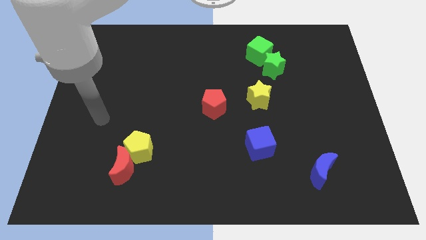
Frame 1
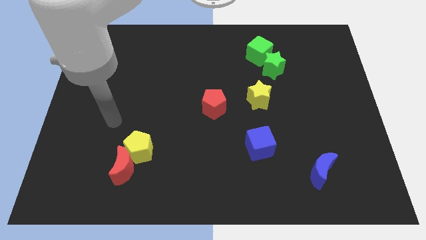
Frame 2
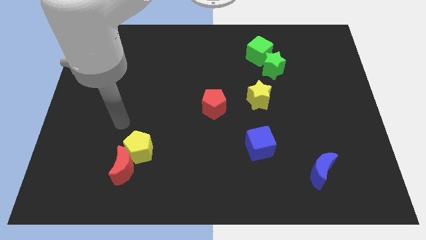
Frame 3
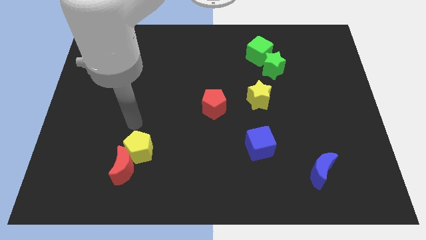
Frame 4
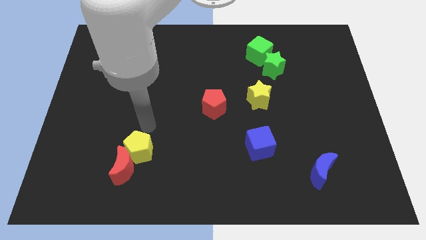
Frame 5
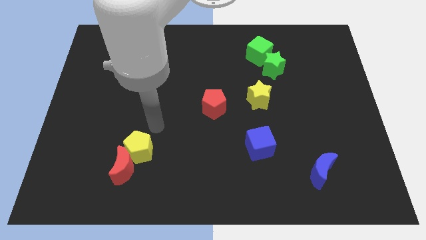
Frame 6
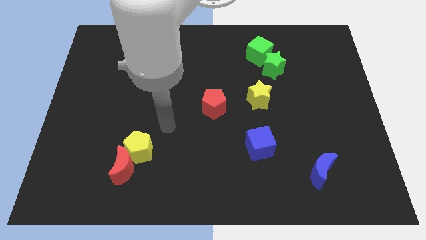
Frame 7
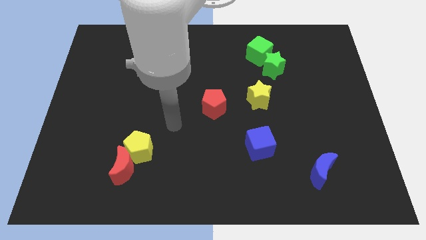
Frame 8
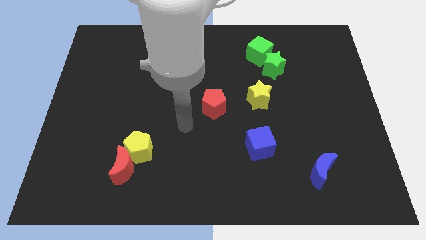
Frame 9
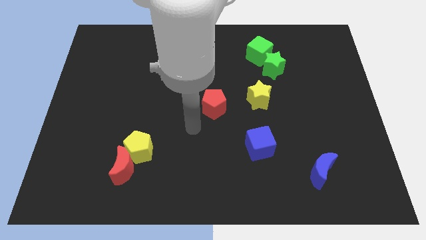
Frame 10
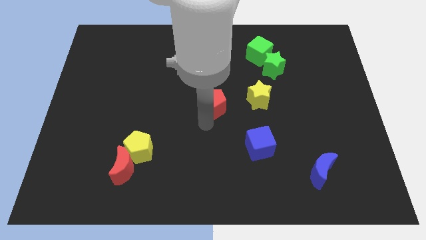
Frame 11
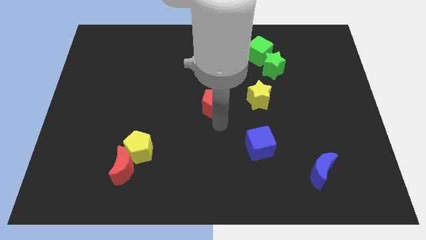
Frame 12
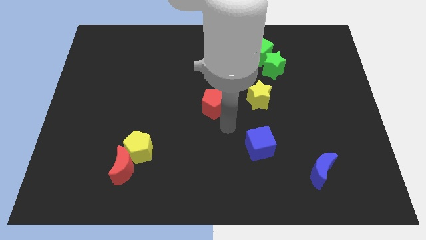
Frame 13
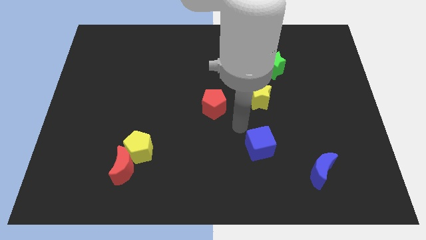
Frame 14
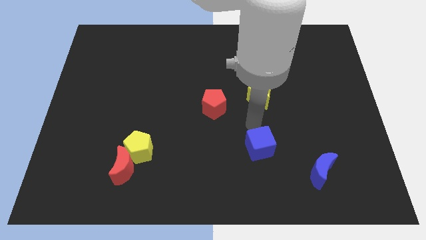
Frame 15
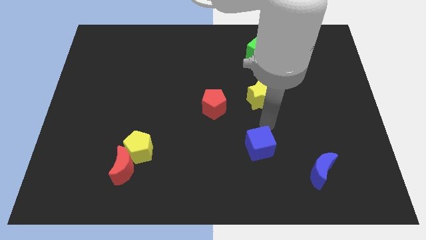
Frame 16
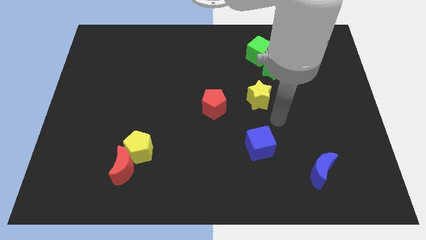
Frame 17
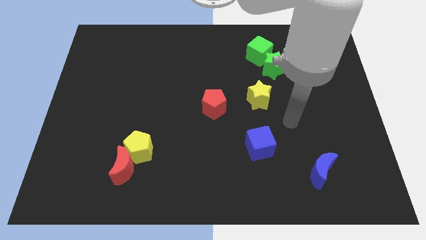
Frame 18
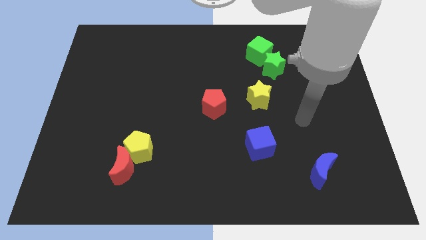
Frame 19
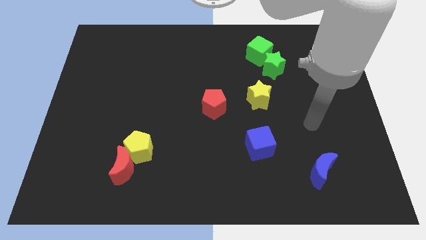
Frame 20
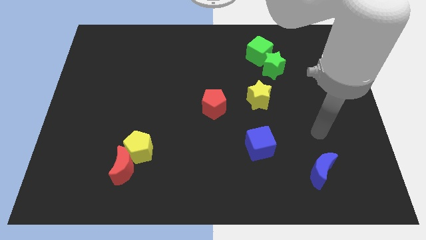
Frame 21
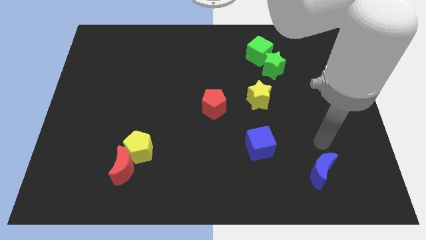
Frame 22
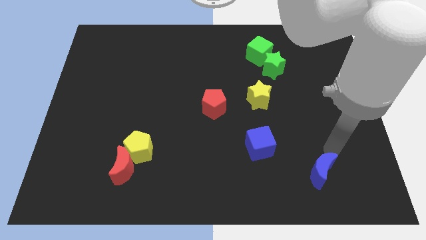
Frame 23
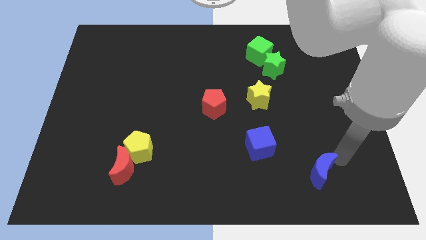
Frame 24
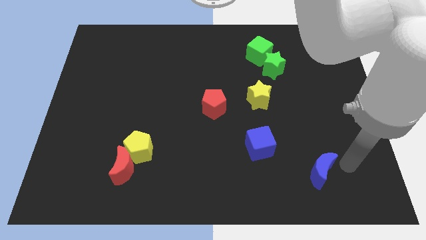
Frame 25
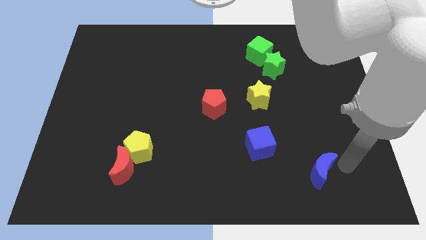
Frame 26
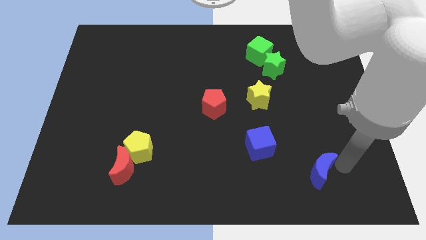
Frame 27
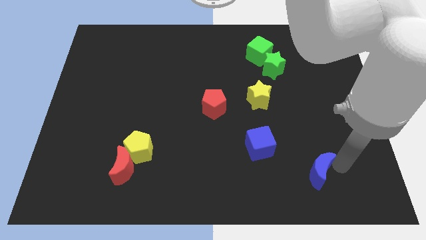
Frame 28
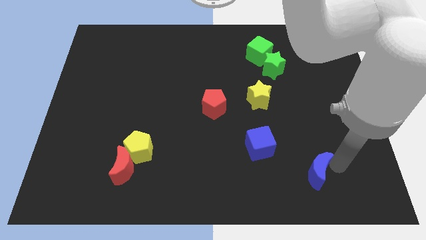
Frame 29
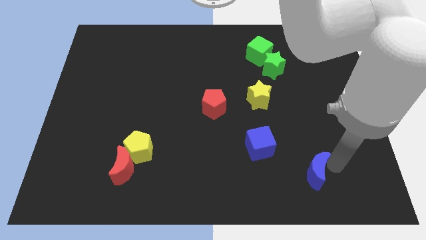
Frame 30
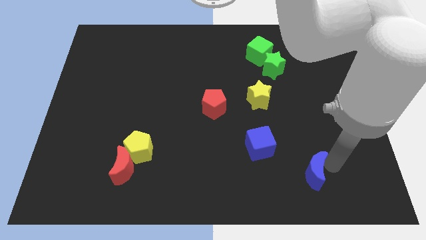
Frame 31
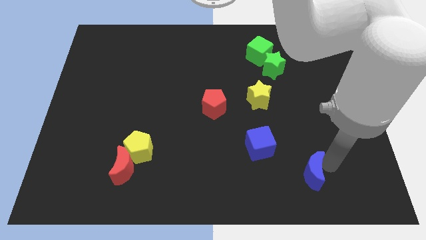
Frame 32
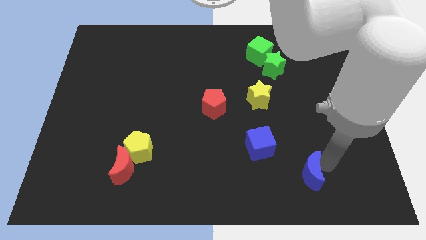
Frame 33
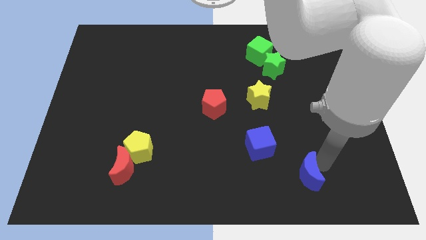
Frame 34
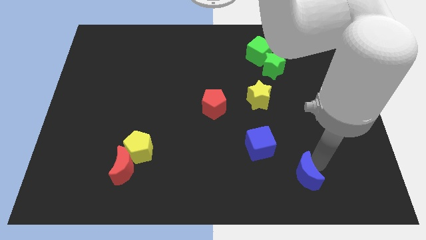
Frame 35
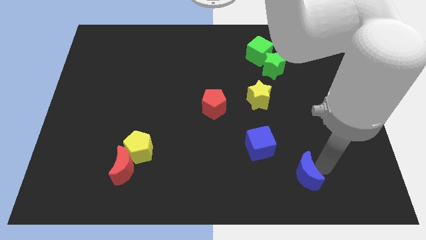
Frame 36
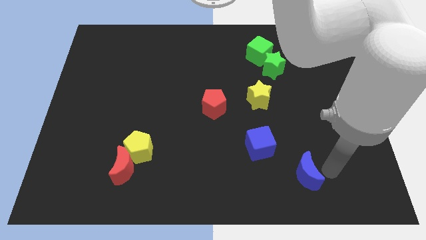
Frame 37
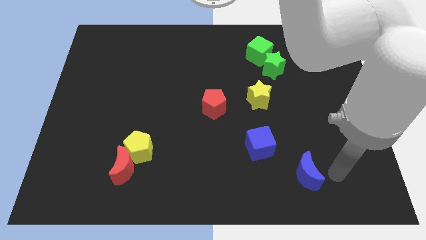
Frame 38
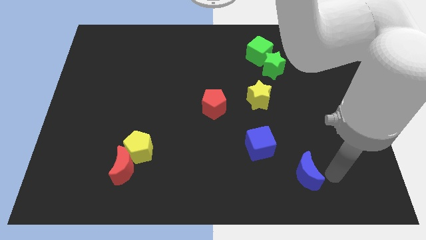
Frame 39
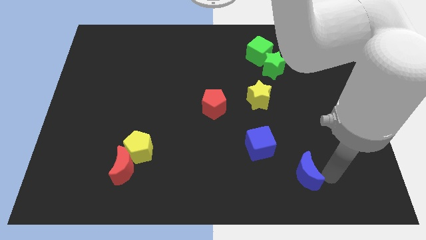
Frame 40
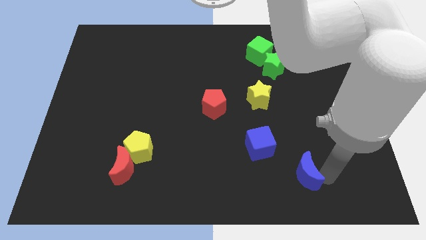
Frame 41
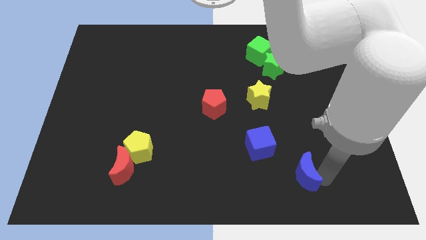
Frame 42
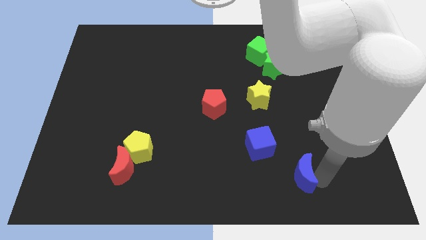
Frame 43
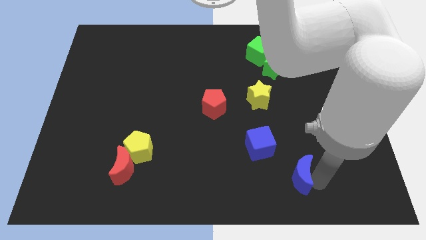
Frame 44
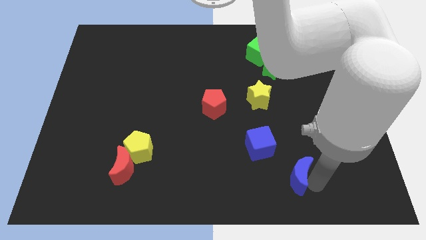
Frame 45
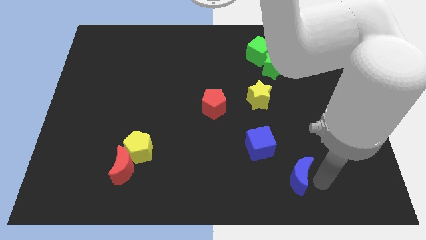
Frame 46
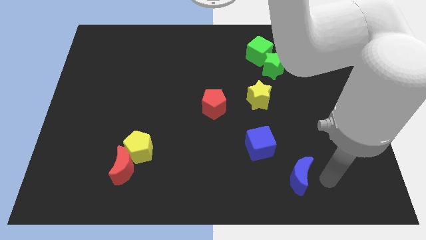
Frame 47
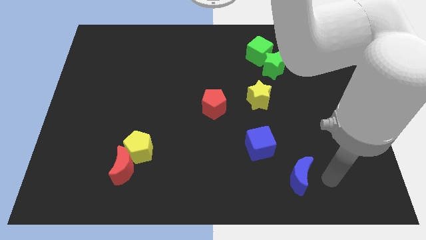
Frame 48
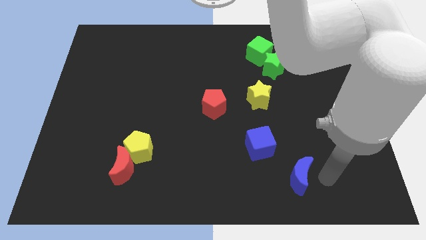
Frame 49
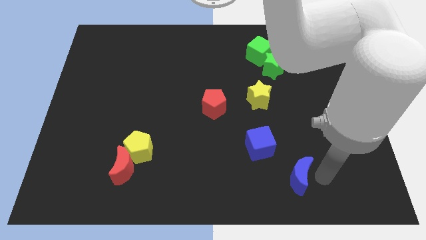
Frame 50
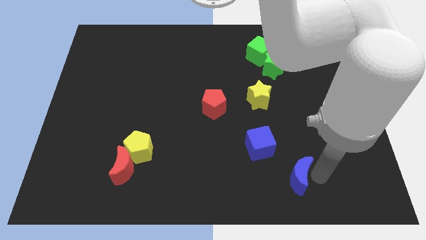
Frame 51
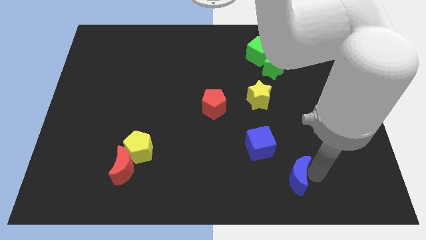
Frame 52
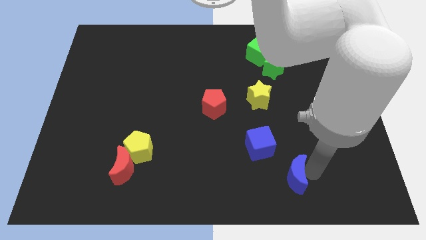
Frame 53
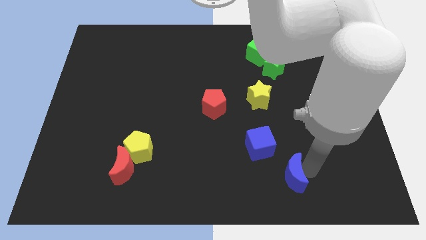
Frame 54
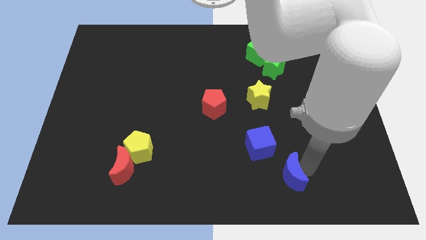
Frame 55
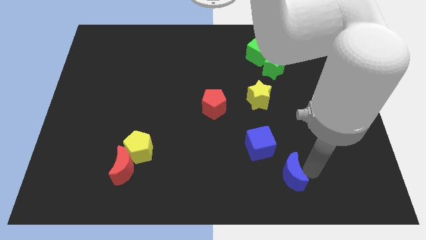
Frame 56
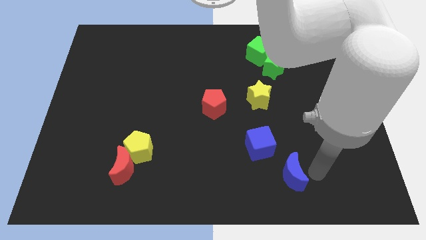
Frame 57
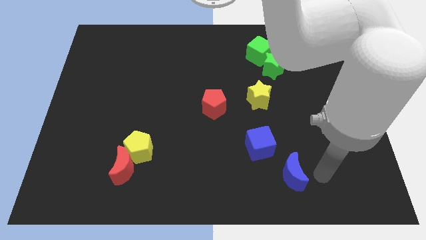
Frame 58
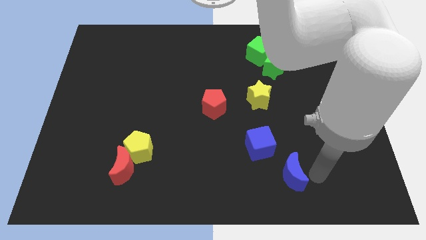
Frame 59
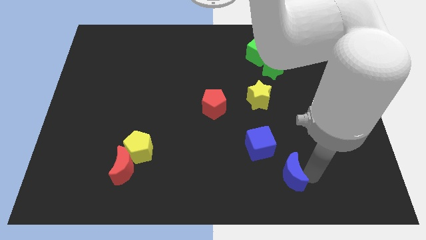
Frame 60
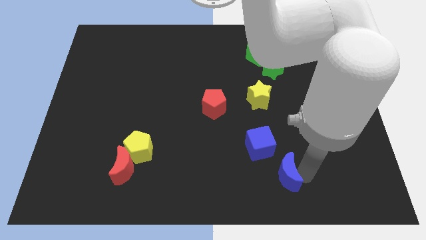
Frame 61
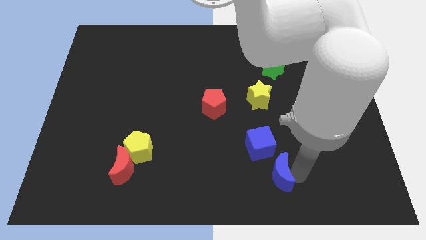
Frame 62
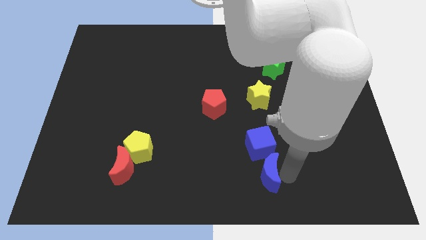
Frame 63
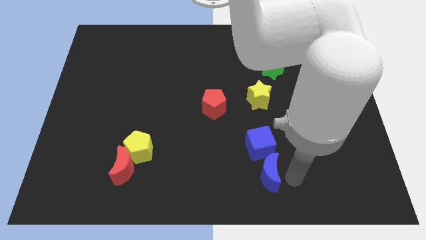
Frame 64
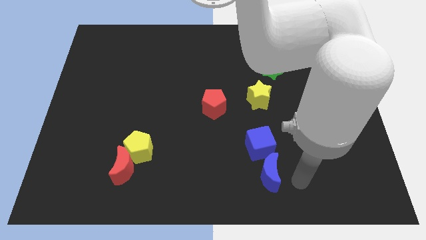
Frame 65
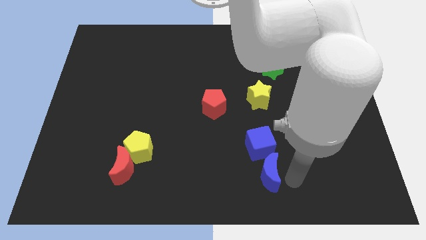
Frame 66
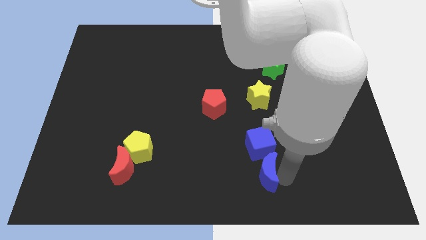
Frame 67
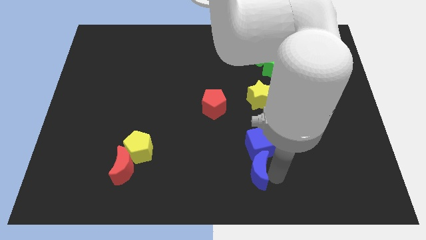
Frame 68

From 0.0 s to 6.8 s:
move the blue moon diagonally down and to the left of the blue cube
